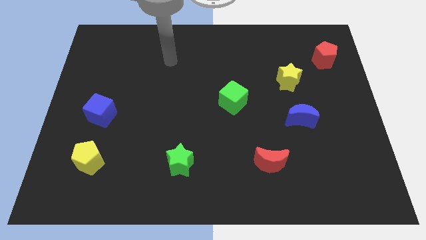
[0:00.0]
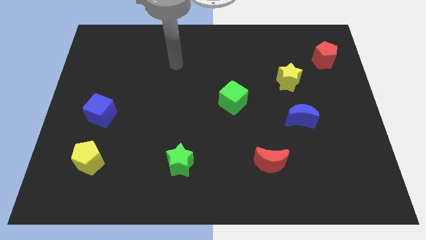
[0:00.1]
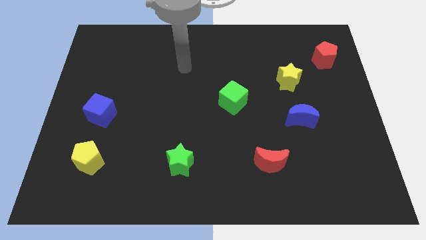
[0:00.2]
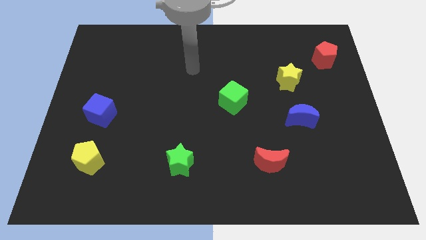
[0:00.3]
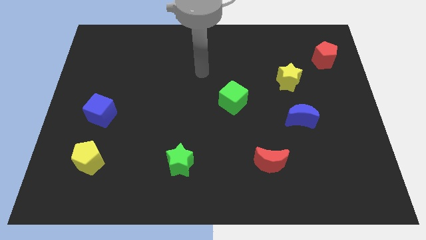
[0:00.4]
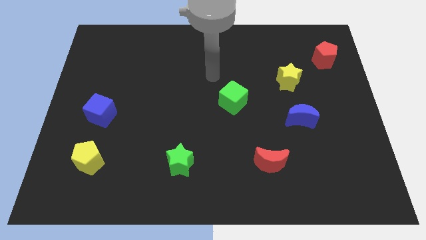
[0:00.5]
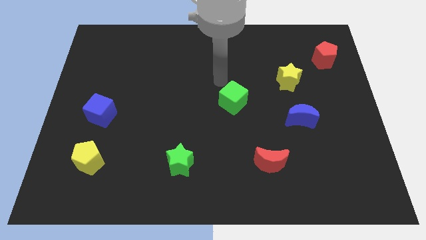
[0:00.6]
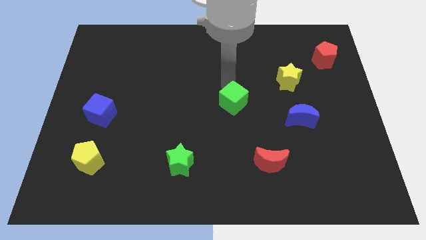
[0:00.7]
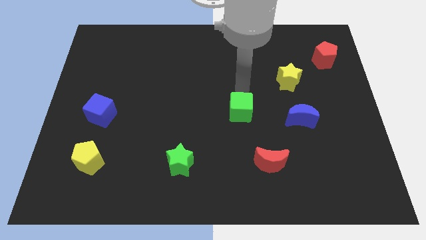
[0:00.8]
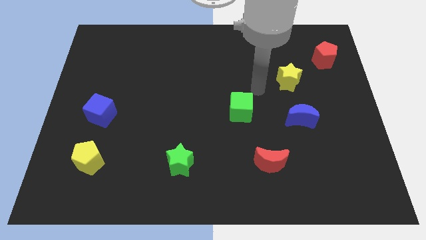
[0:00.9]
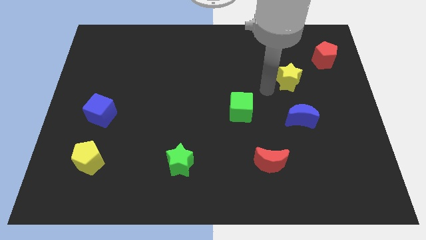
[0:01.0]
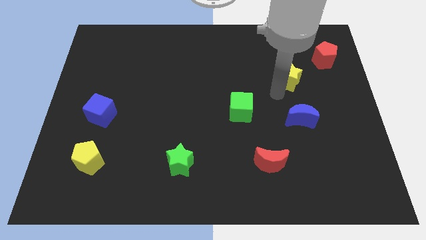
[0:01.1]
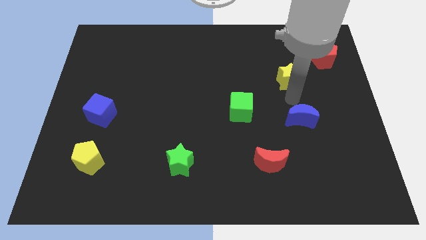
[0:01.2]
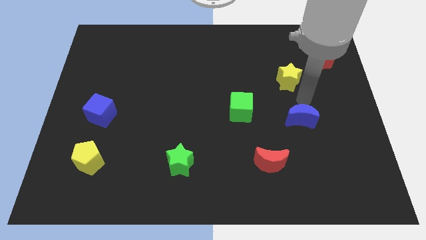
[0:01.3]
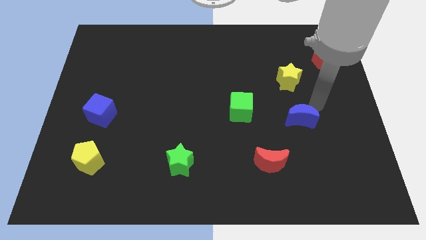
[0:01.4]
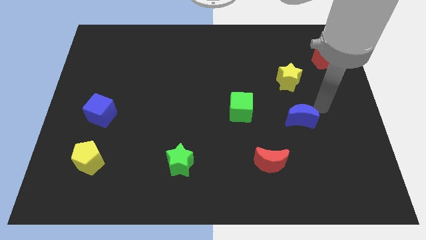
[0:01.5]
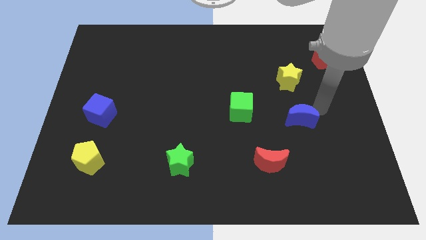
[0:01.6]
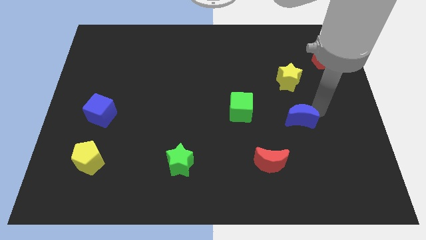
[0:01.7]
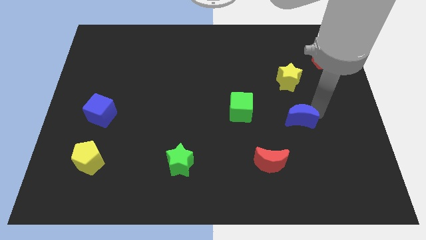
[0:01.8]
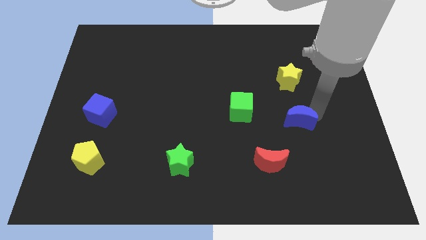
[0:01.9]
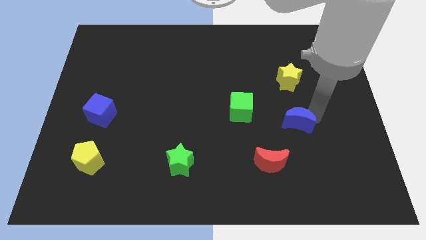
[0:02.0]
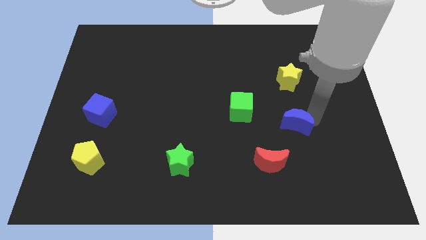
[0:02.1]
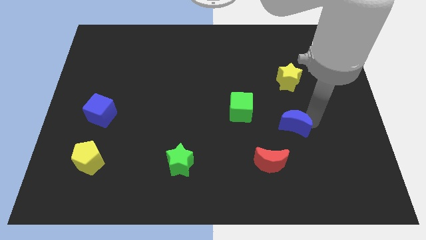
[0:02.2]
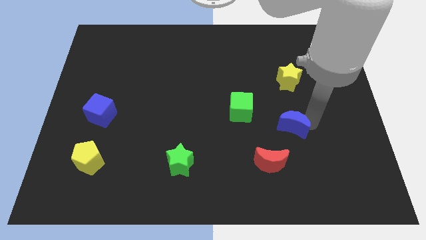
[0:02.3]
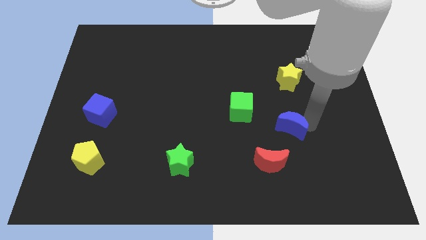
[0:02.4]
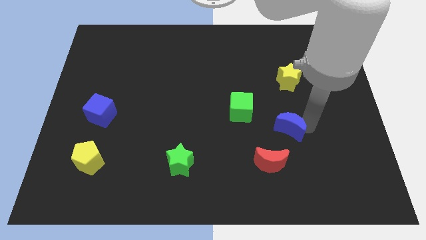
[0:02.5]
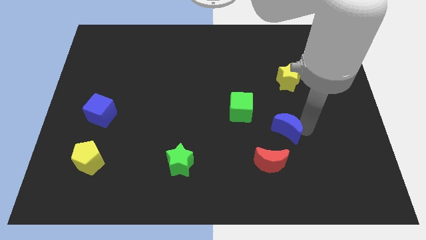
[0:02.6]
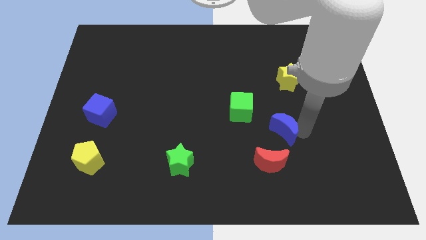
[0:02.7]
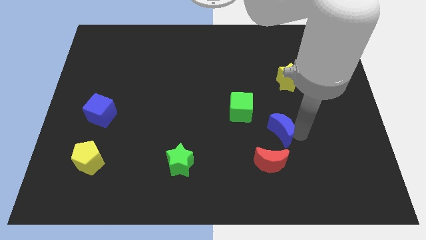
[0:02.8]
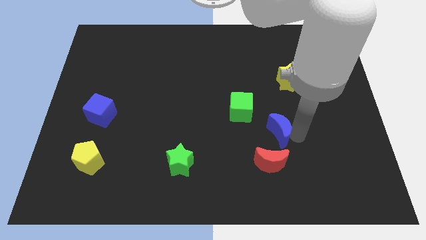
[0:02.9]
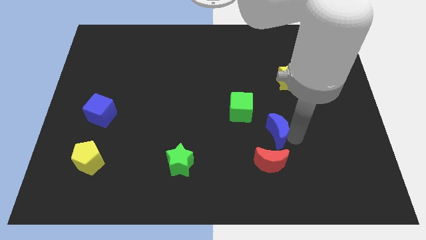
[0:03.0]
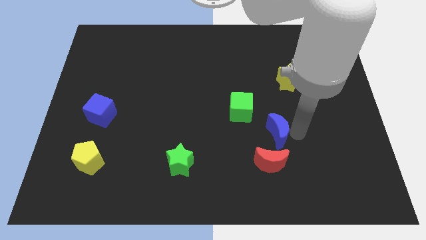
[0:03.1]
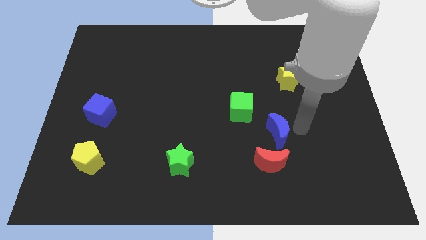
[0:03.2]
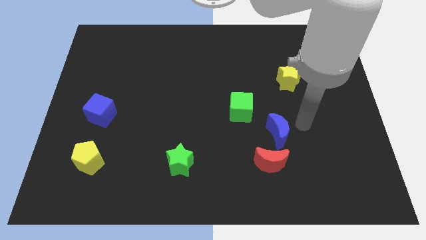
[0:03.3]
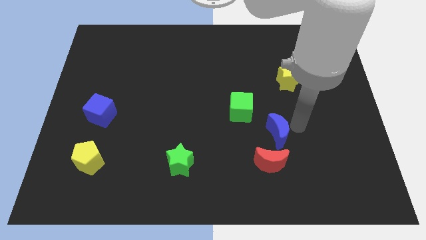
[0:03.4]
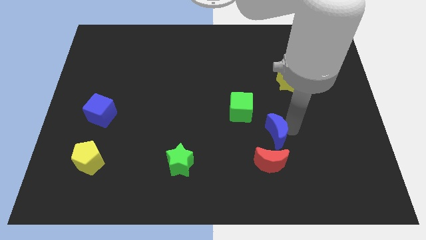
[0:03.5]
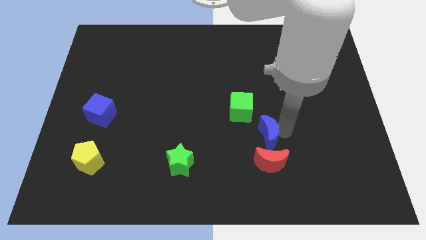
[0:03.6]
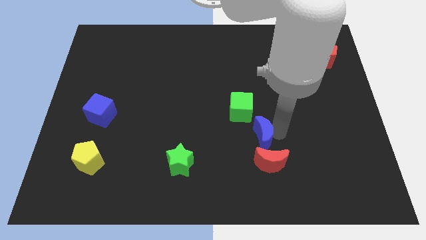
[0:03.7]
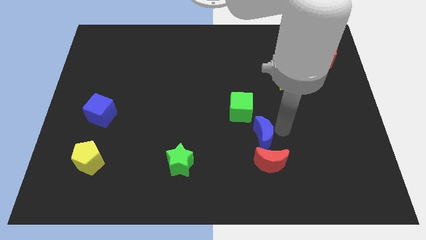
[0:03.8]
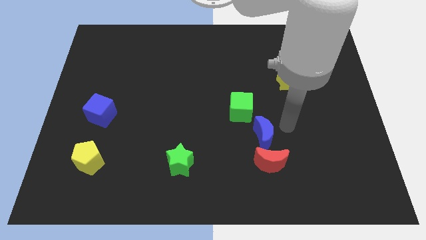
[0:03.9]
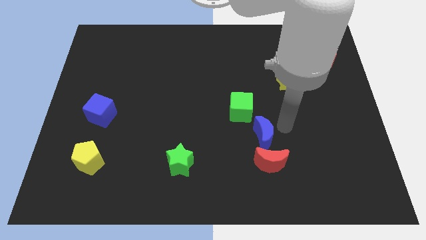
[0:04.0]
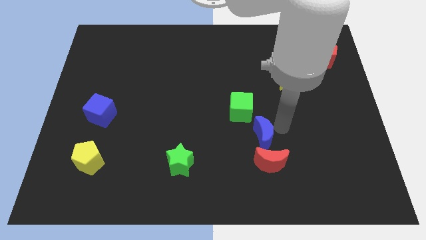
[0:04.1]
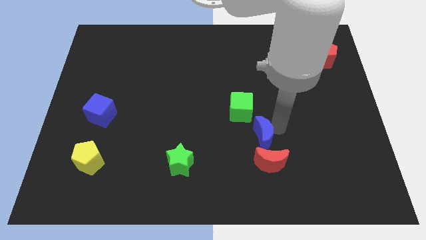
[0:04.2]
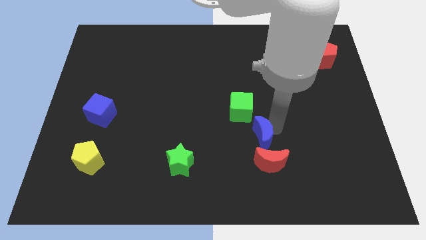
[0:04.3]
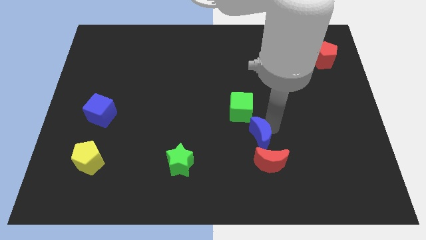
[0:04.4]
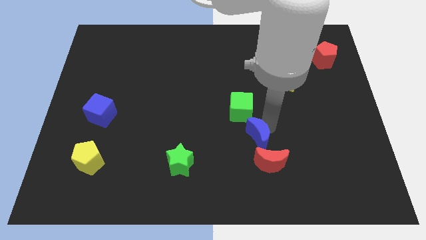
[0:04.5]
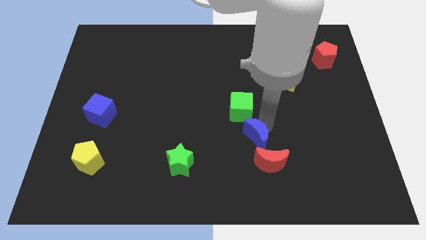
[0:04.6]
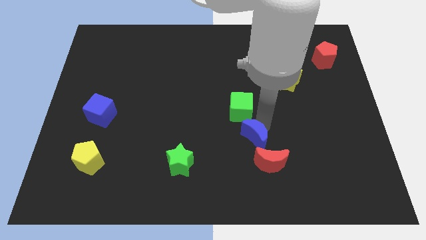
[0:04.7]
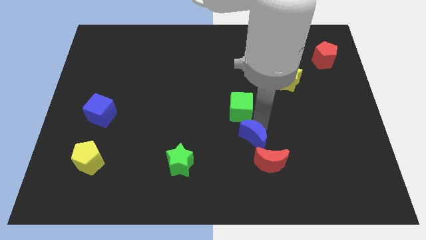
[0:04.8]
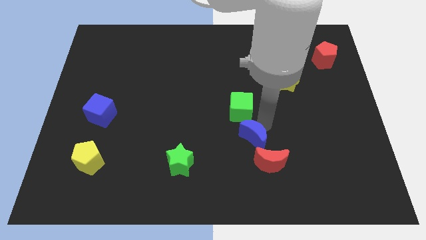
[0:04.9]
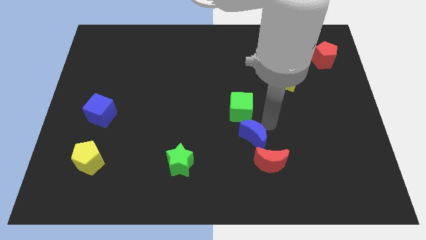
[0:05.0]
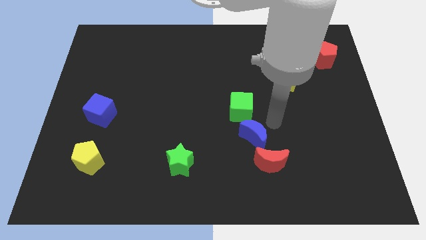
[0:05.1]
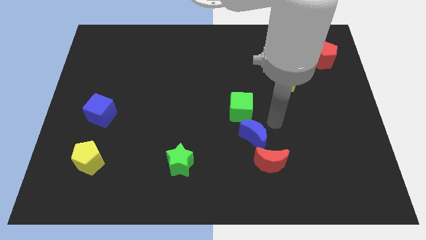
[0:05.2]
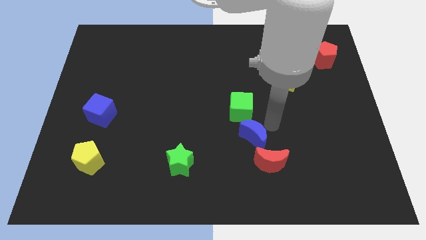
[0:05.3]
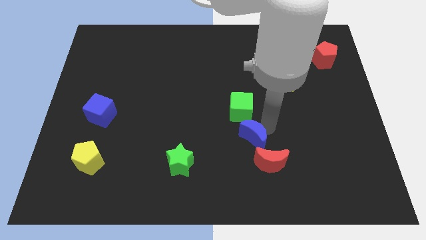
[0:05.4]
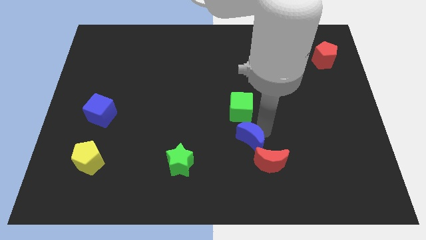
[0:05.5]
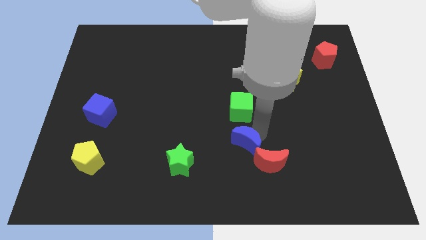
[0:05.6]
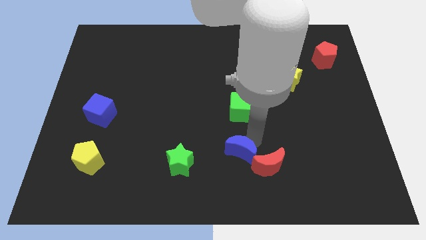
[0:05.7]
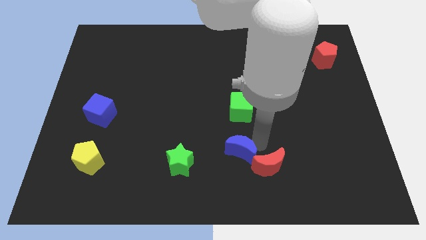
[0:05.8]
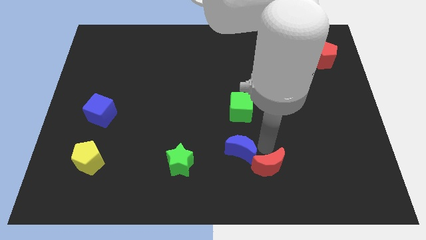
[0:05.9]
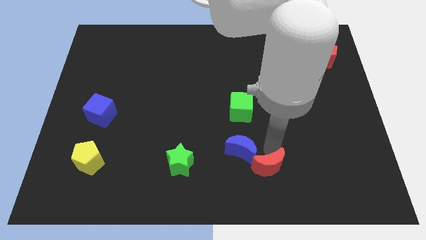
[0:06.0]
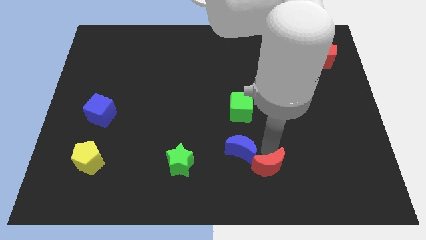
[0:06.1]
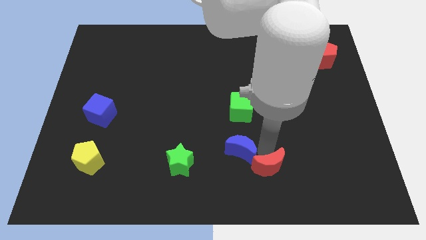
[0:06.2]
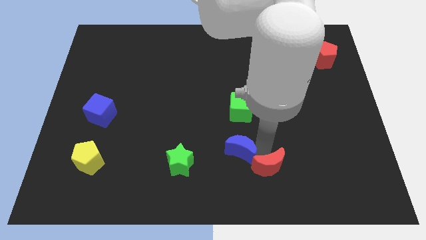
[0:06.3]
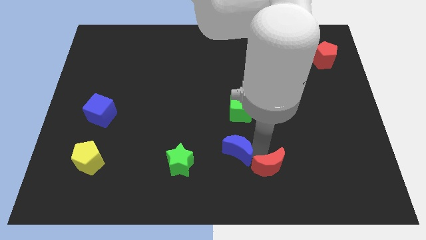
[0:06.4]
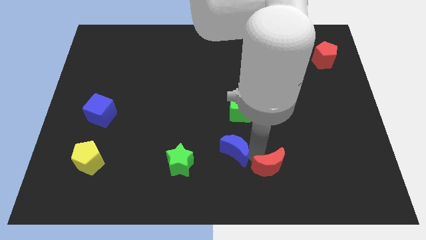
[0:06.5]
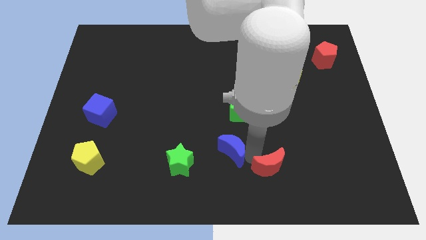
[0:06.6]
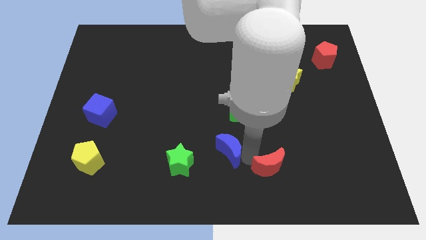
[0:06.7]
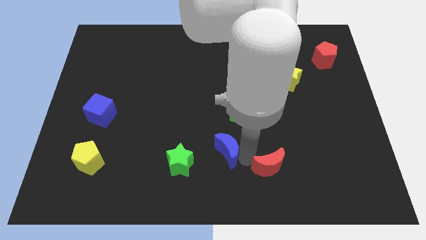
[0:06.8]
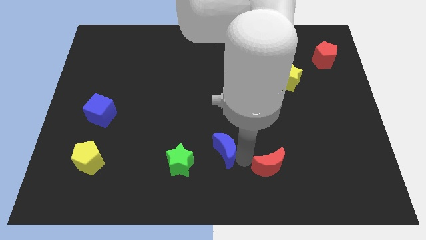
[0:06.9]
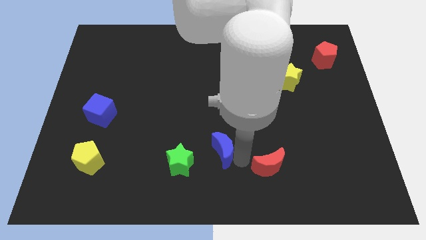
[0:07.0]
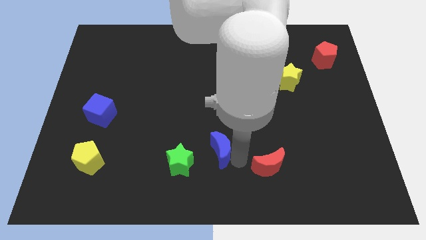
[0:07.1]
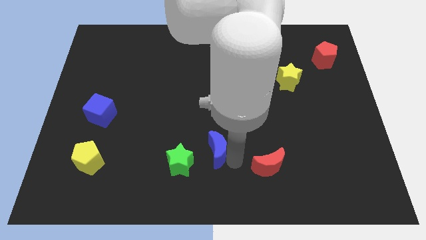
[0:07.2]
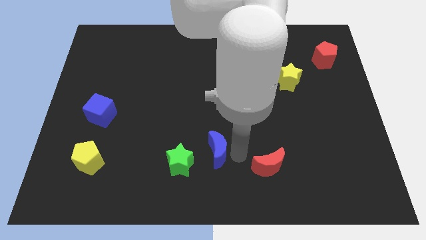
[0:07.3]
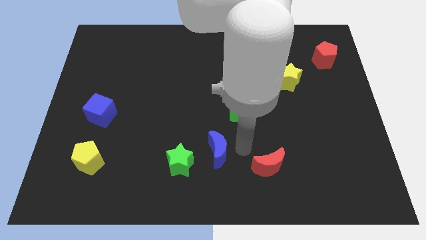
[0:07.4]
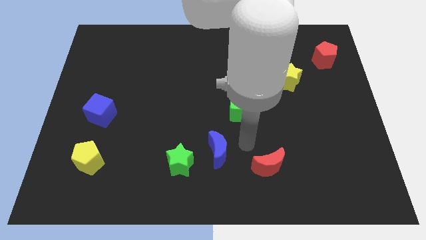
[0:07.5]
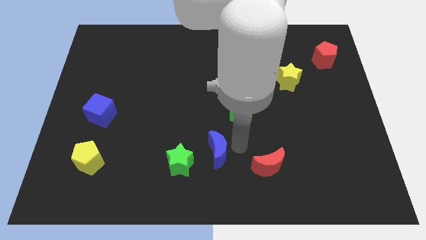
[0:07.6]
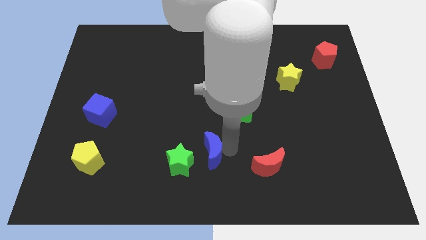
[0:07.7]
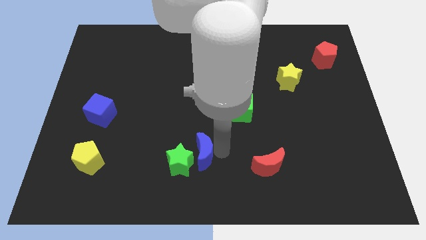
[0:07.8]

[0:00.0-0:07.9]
move the blue moon towards the green star

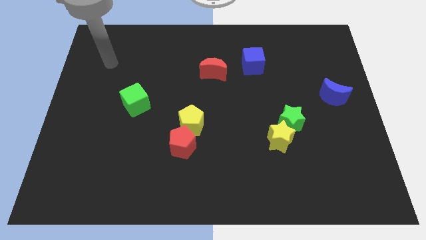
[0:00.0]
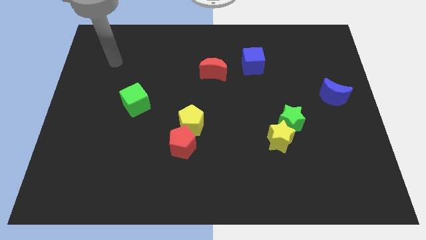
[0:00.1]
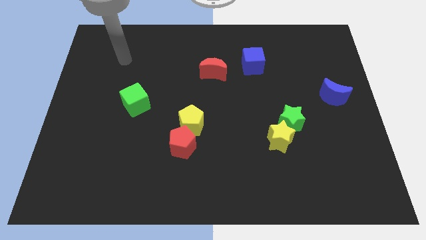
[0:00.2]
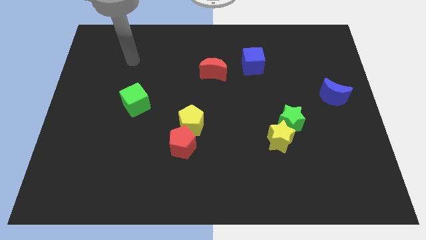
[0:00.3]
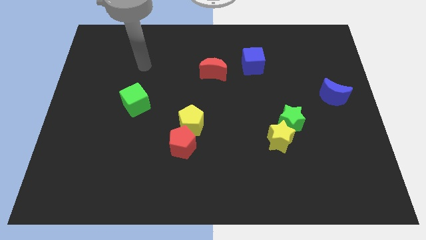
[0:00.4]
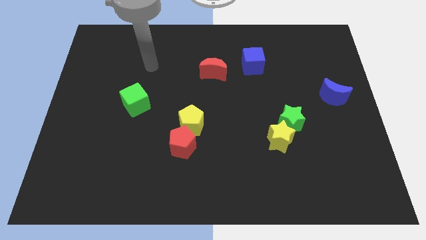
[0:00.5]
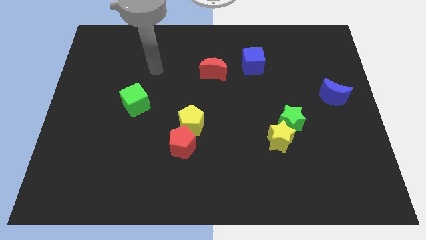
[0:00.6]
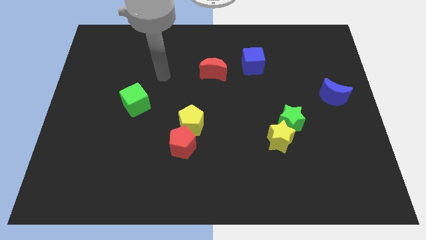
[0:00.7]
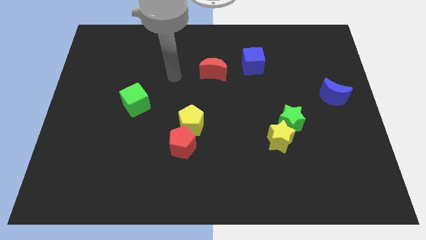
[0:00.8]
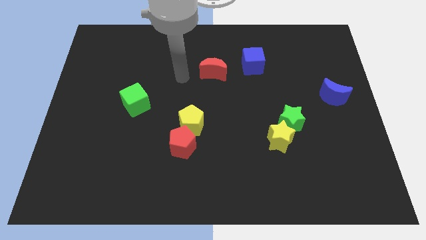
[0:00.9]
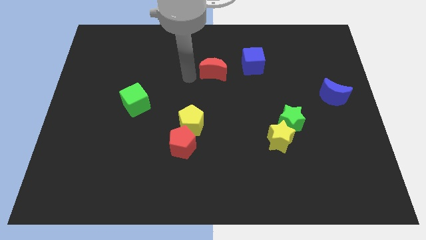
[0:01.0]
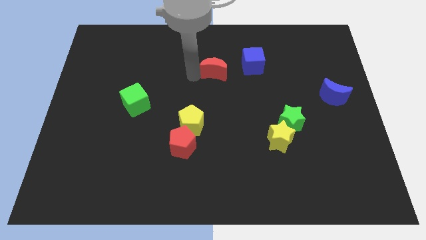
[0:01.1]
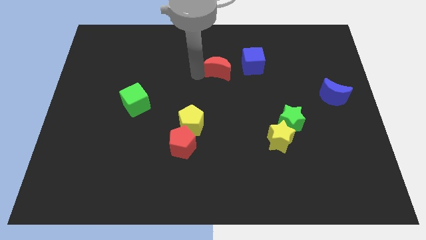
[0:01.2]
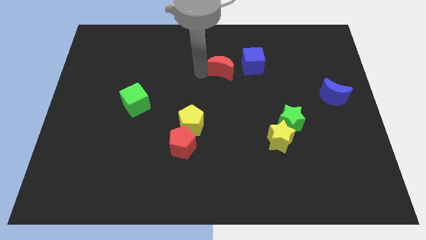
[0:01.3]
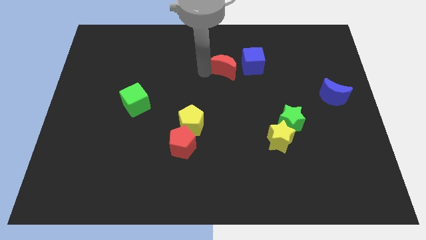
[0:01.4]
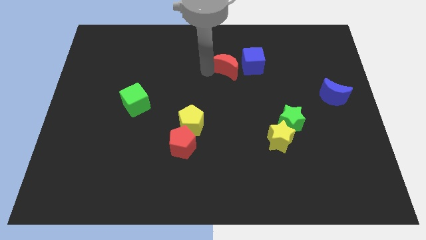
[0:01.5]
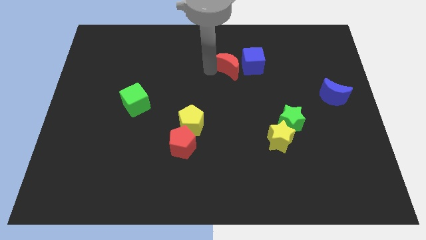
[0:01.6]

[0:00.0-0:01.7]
slide the red moon to the blue cube
